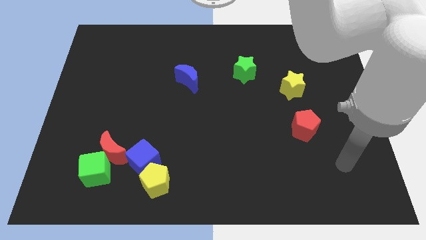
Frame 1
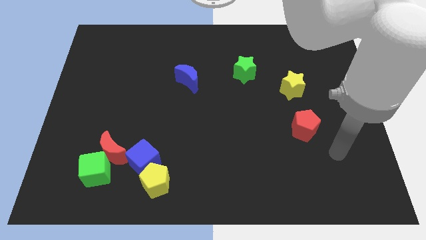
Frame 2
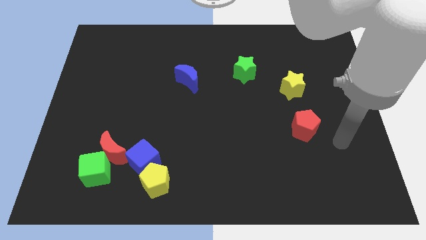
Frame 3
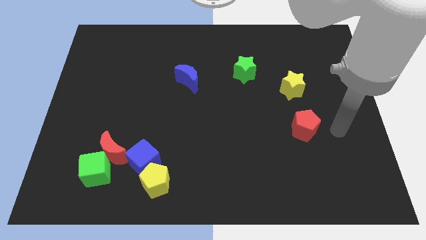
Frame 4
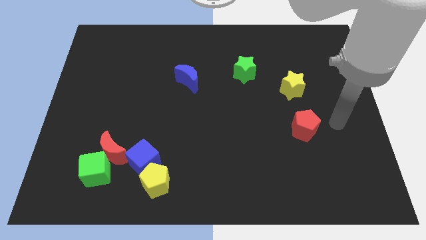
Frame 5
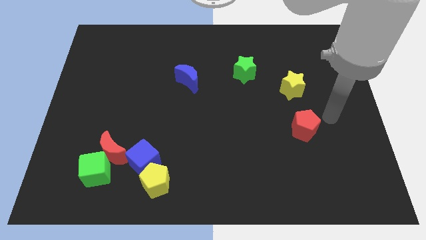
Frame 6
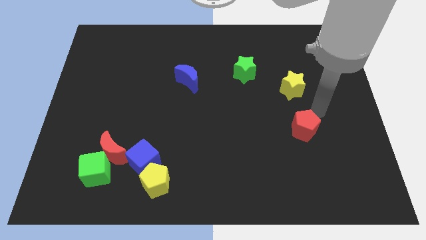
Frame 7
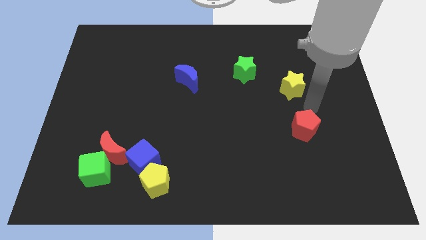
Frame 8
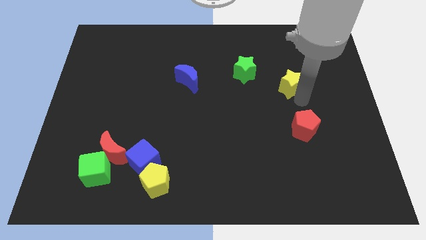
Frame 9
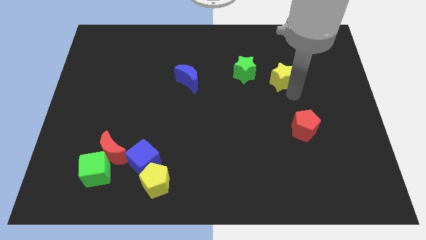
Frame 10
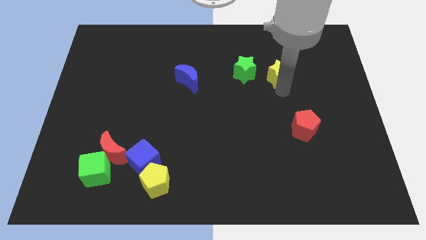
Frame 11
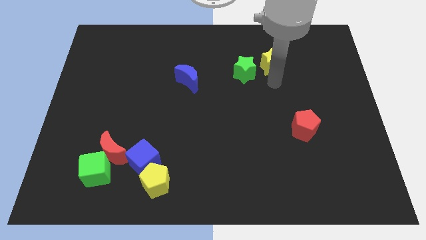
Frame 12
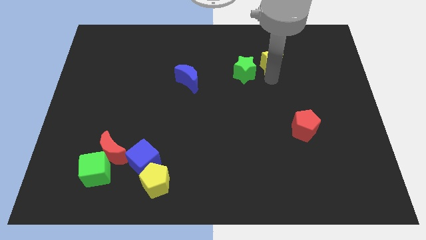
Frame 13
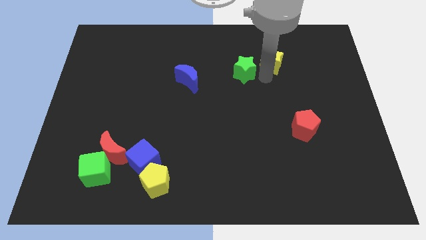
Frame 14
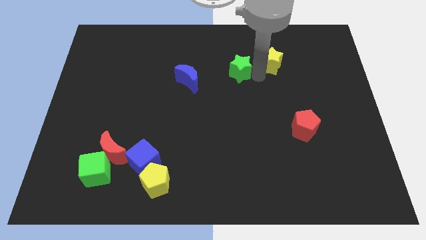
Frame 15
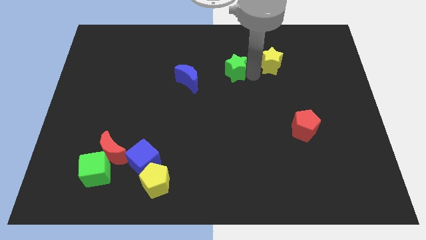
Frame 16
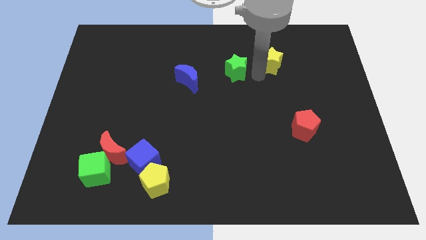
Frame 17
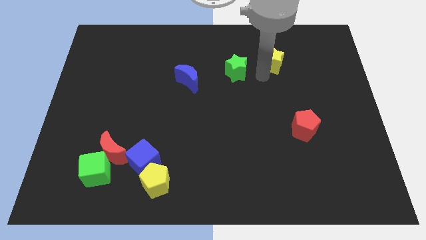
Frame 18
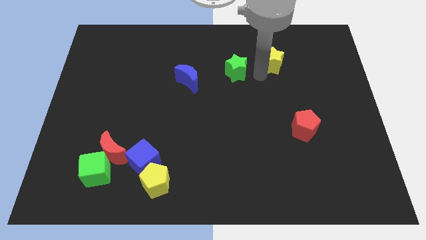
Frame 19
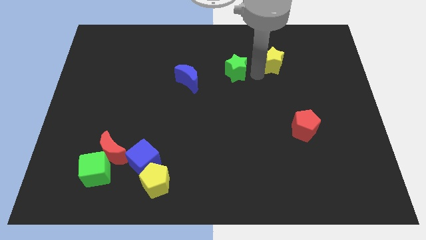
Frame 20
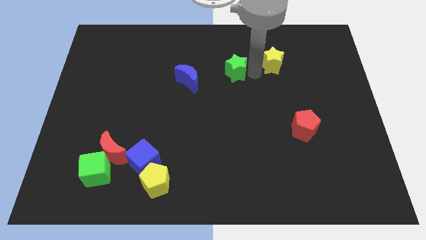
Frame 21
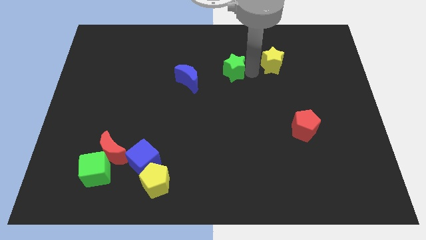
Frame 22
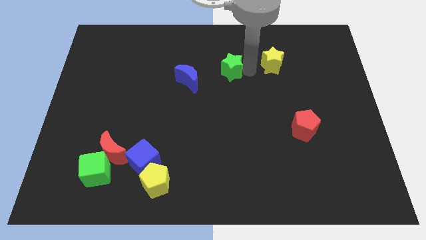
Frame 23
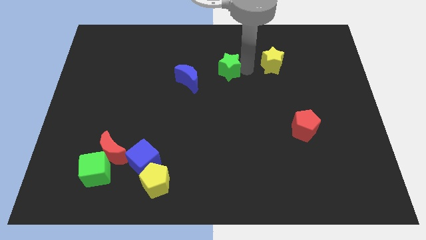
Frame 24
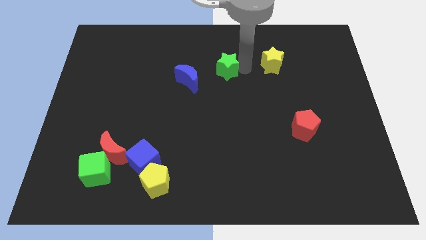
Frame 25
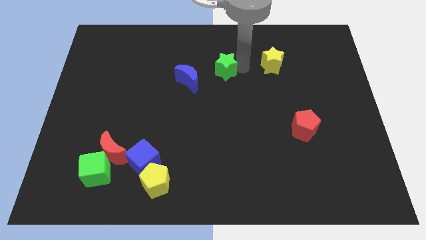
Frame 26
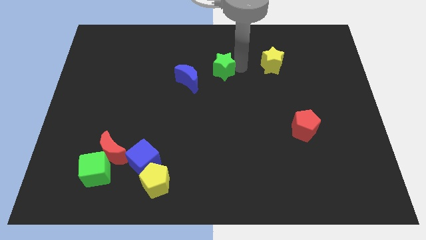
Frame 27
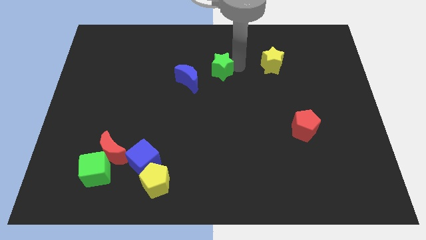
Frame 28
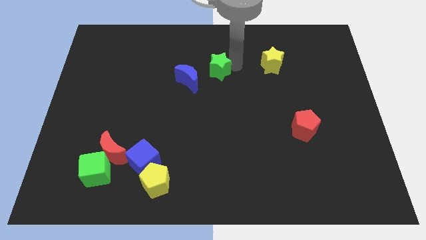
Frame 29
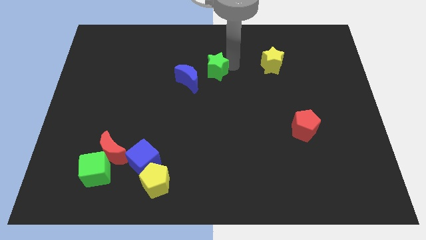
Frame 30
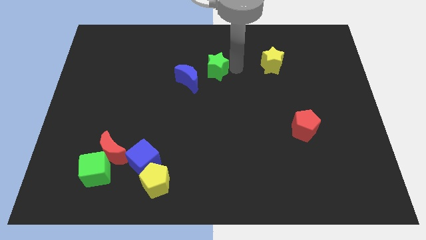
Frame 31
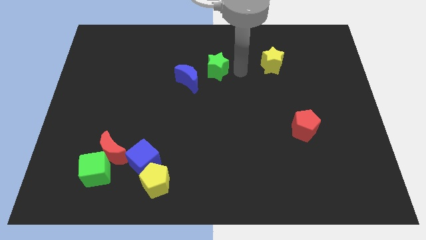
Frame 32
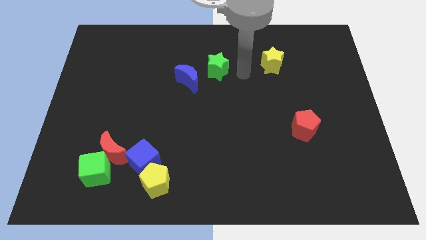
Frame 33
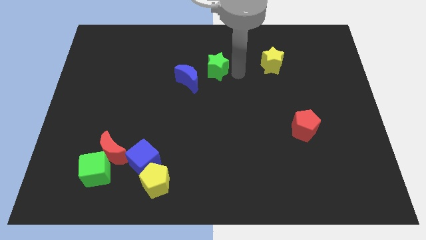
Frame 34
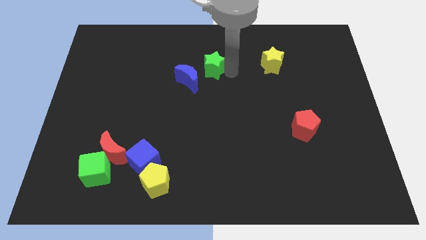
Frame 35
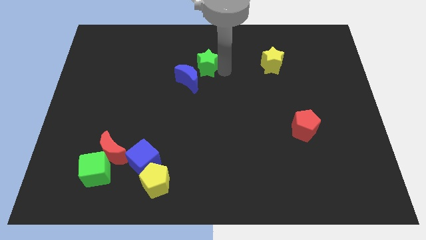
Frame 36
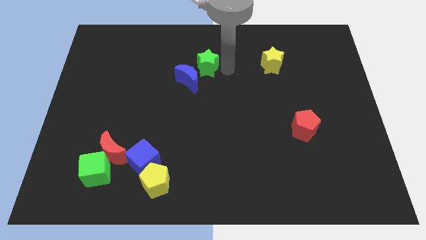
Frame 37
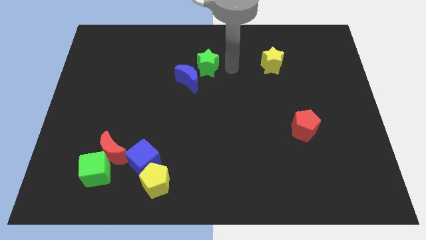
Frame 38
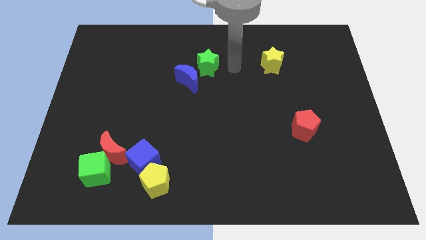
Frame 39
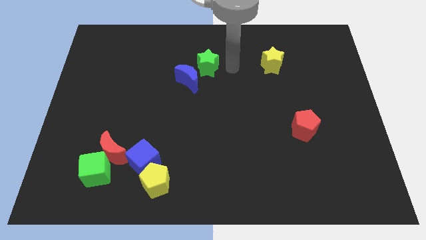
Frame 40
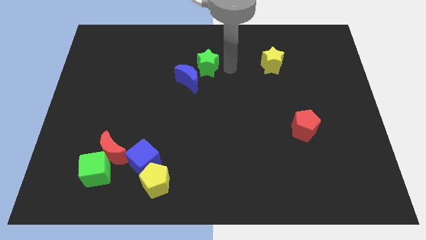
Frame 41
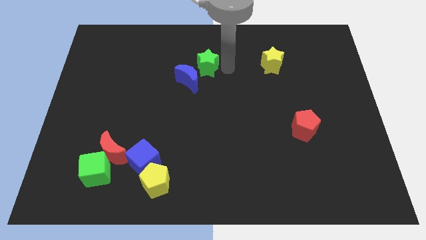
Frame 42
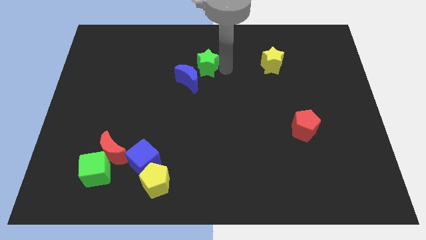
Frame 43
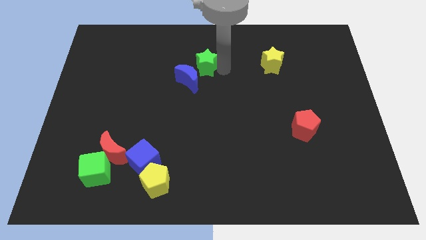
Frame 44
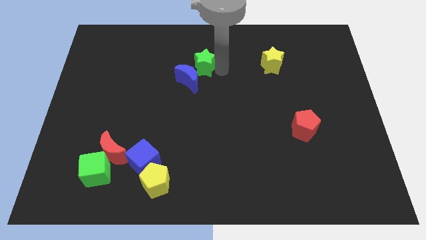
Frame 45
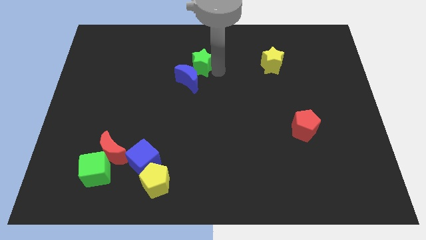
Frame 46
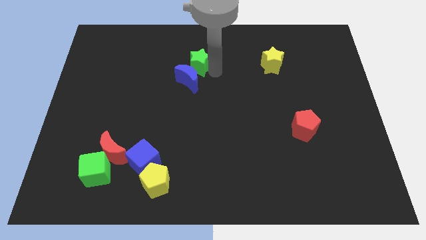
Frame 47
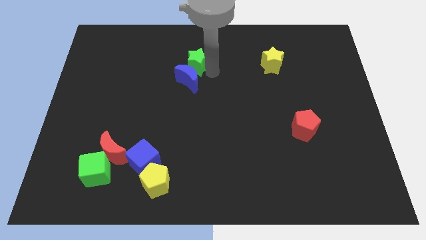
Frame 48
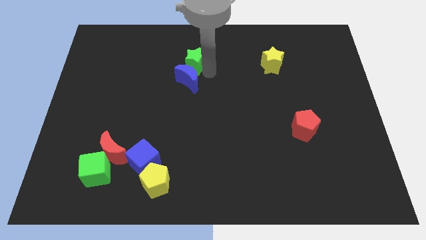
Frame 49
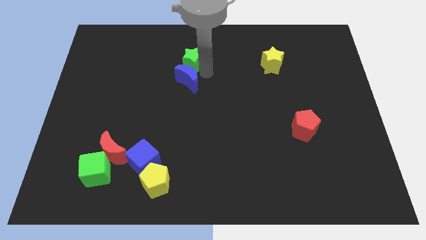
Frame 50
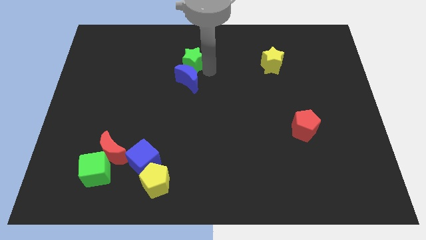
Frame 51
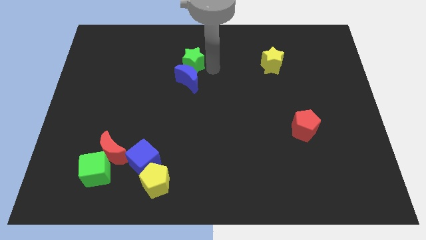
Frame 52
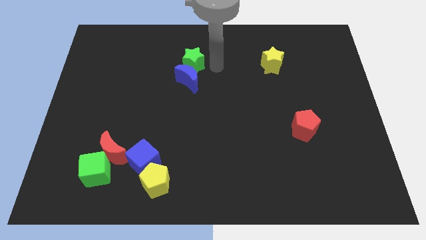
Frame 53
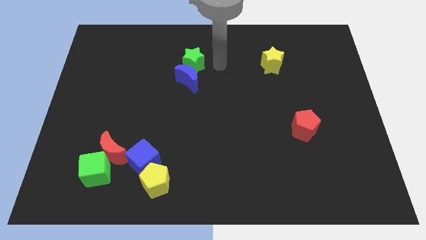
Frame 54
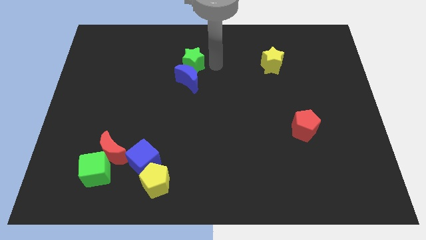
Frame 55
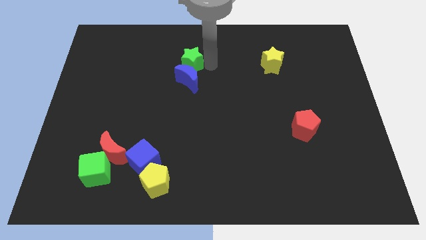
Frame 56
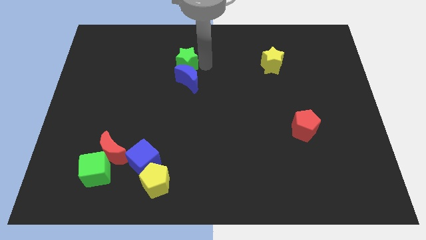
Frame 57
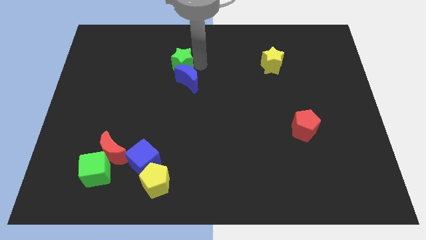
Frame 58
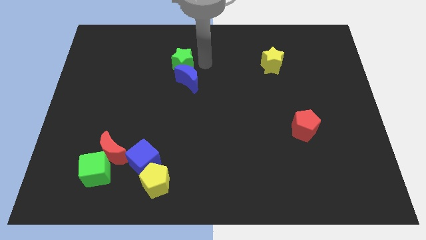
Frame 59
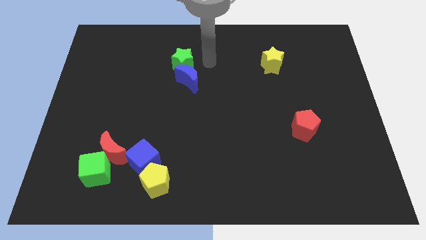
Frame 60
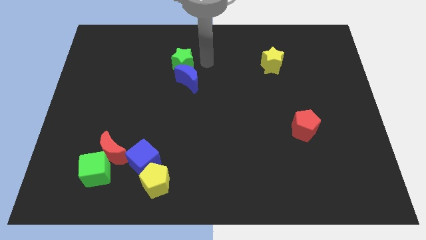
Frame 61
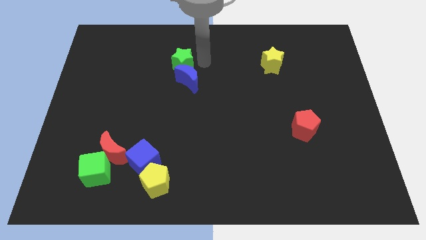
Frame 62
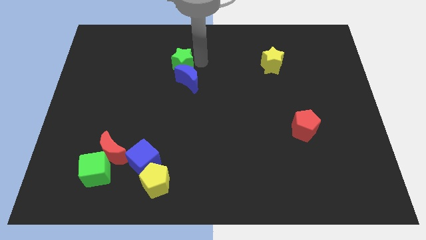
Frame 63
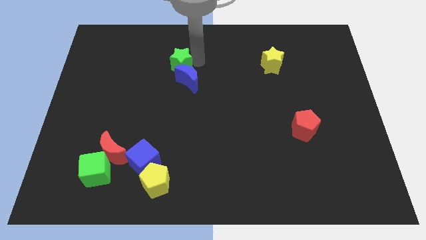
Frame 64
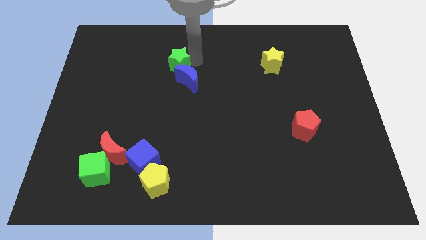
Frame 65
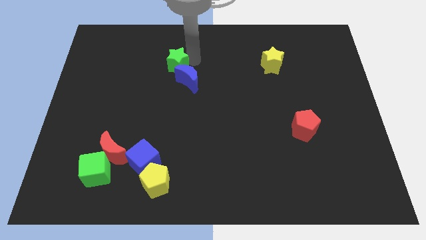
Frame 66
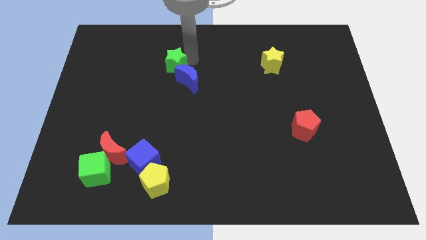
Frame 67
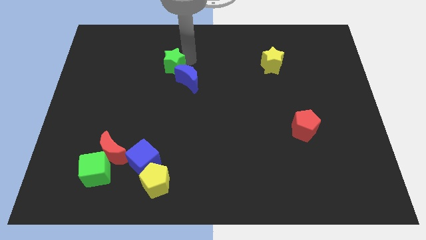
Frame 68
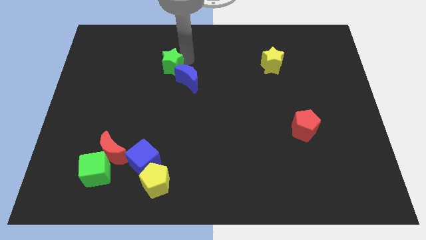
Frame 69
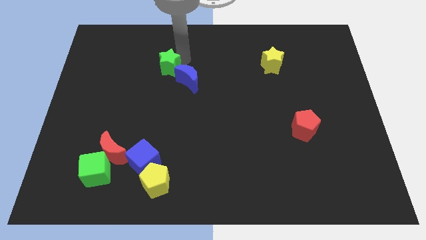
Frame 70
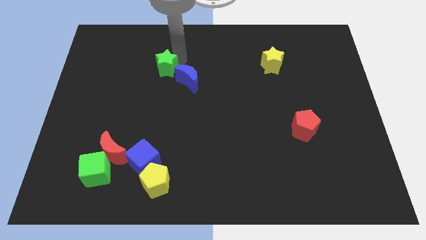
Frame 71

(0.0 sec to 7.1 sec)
slide the green star to the left

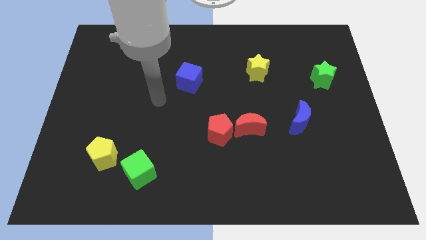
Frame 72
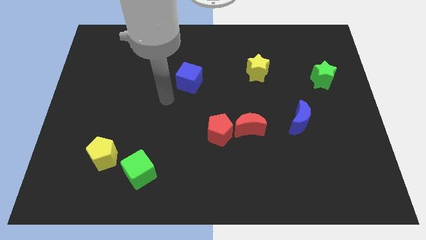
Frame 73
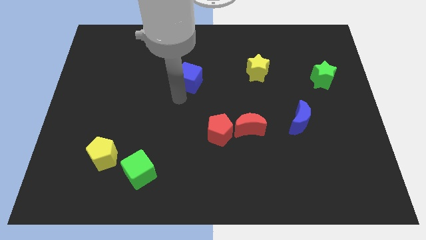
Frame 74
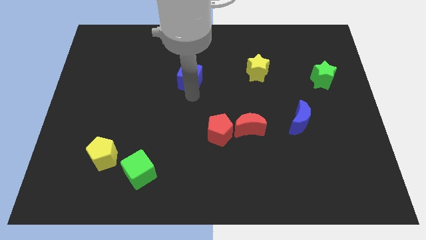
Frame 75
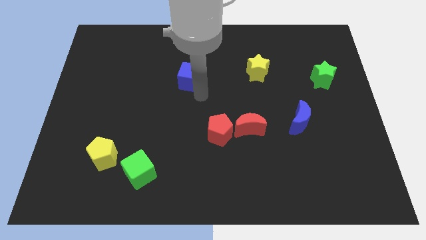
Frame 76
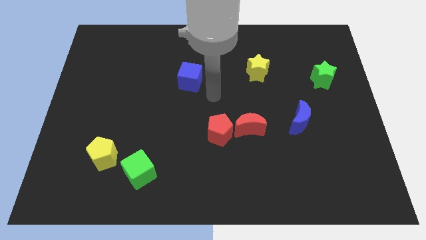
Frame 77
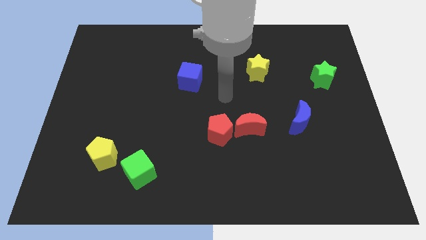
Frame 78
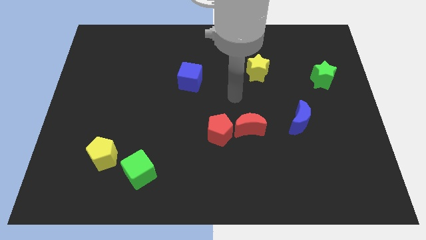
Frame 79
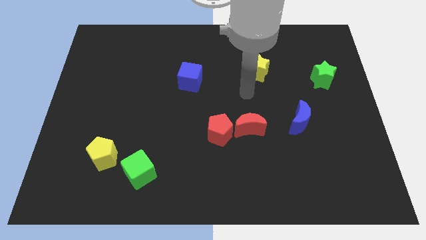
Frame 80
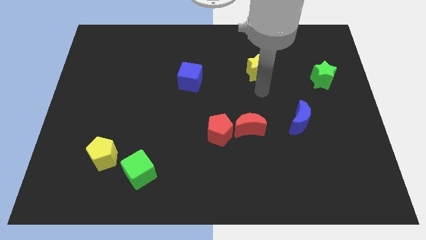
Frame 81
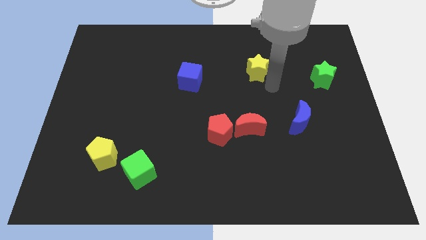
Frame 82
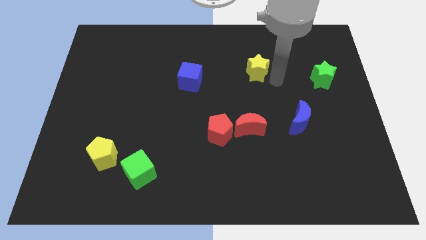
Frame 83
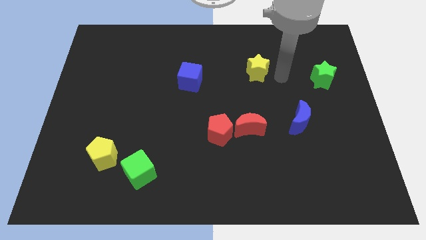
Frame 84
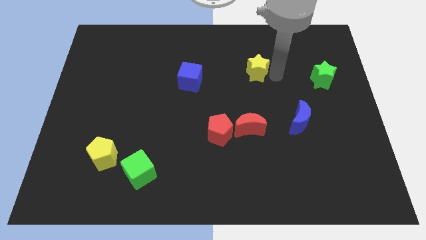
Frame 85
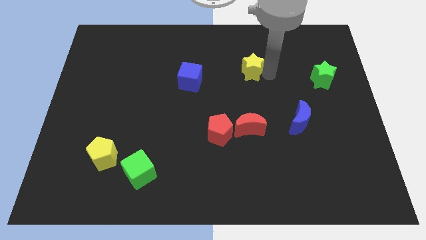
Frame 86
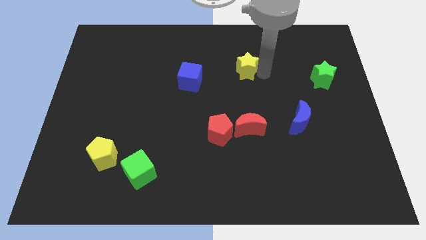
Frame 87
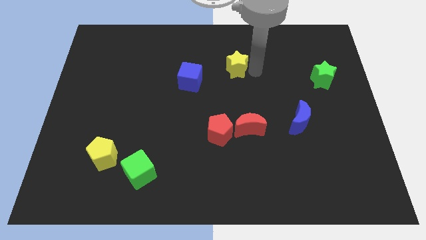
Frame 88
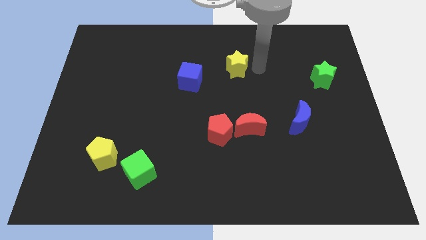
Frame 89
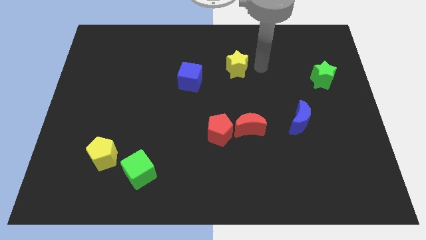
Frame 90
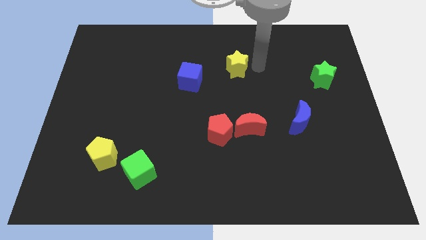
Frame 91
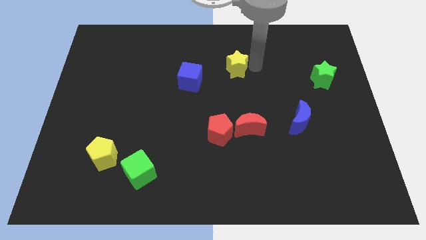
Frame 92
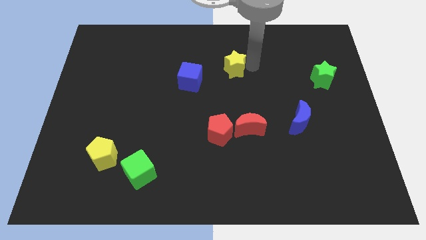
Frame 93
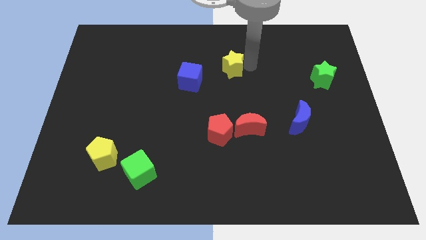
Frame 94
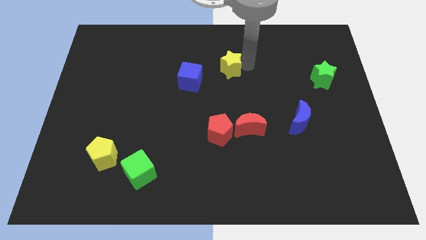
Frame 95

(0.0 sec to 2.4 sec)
slightly slide the yellow star left
